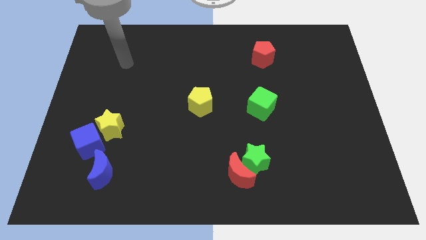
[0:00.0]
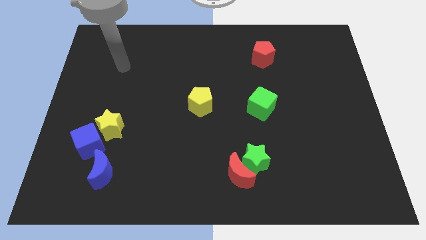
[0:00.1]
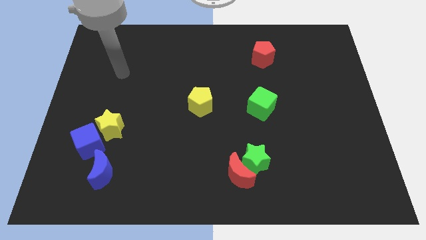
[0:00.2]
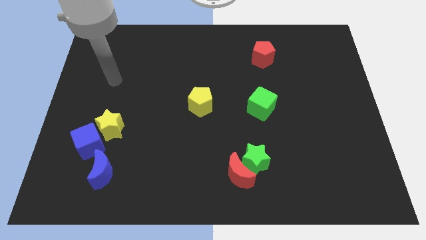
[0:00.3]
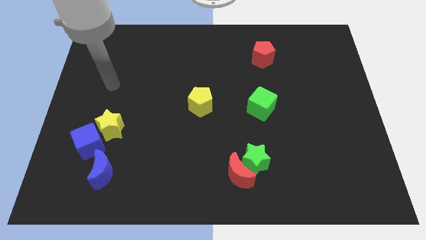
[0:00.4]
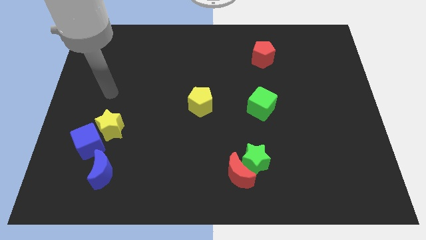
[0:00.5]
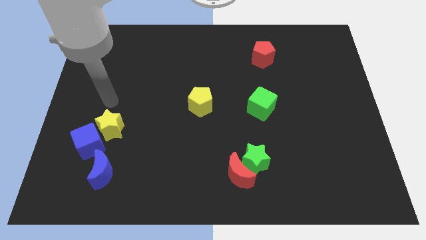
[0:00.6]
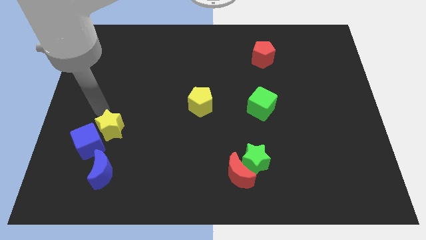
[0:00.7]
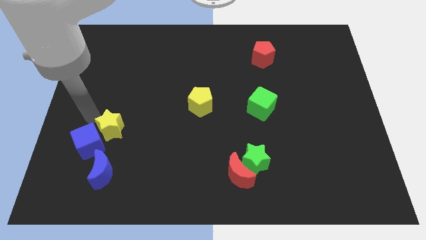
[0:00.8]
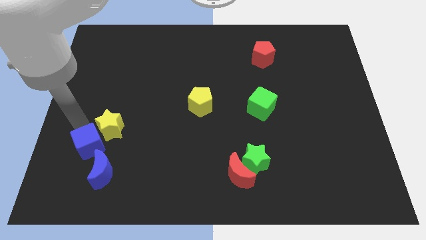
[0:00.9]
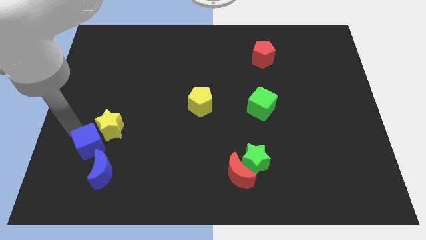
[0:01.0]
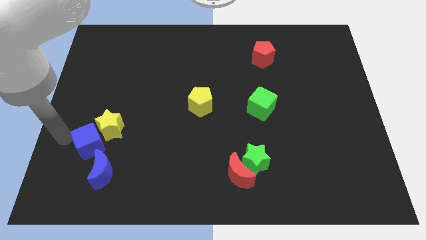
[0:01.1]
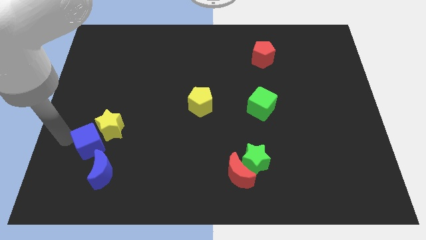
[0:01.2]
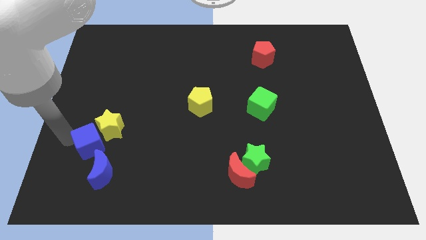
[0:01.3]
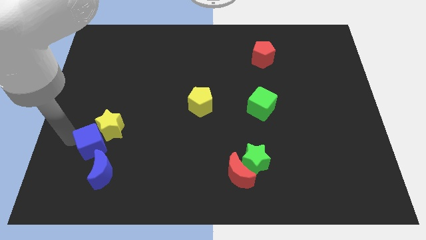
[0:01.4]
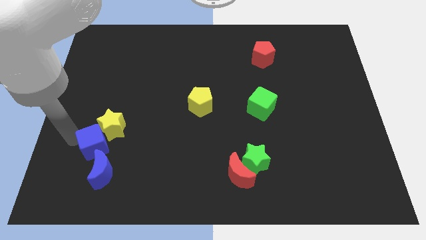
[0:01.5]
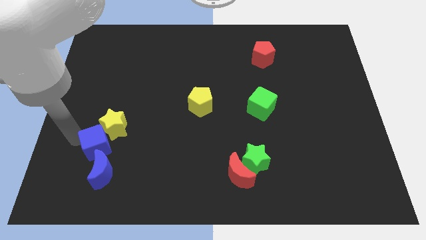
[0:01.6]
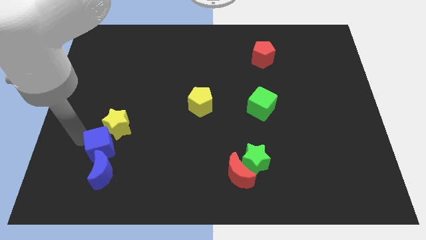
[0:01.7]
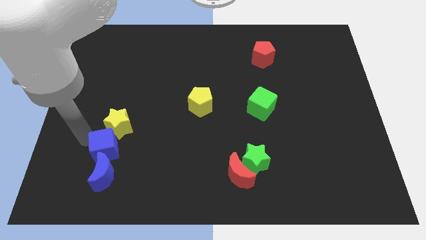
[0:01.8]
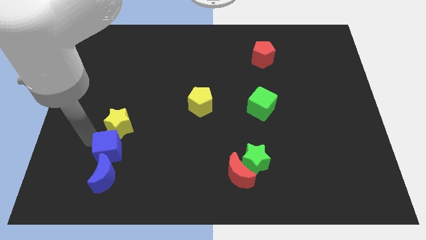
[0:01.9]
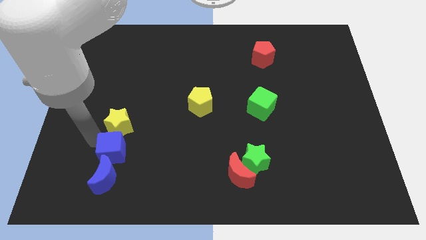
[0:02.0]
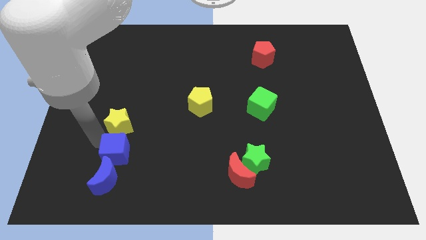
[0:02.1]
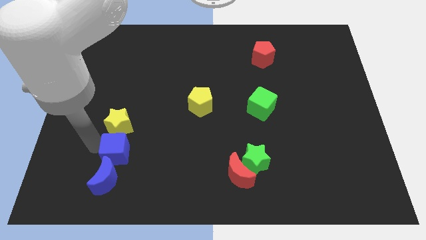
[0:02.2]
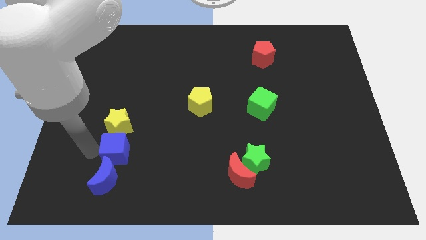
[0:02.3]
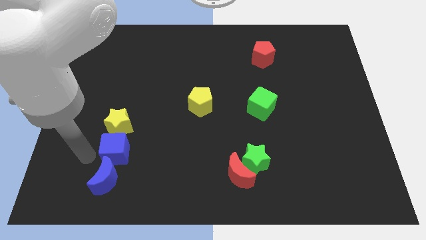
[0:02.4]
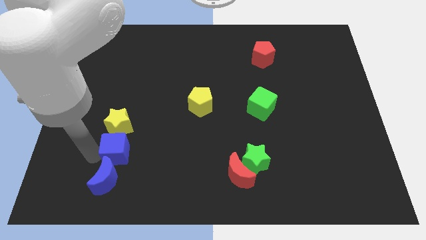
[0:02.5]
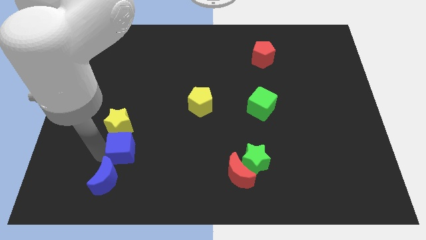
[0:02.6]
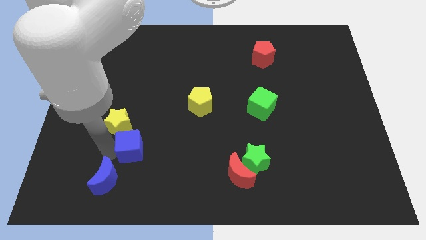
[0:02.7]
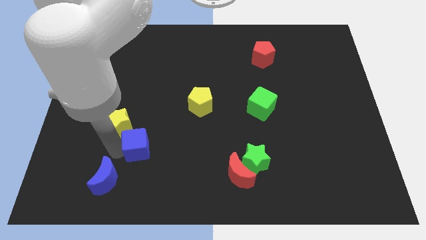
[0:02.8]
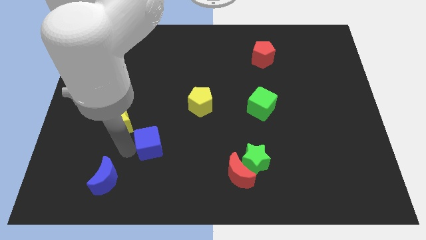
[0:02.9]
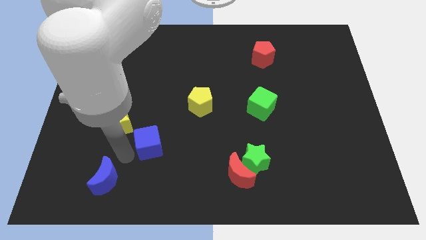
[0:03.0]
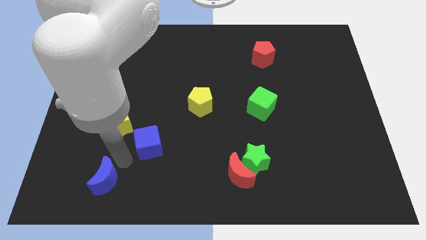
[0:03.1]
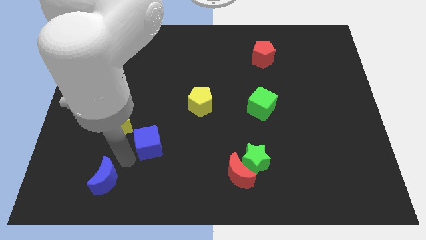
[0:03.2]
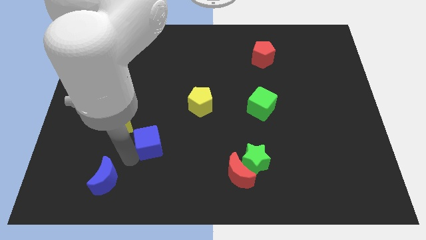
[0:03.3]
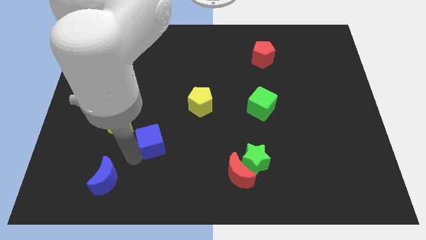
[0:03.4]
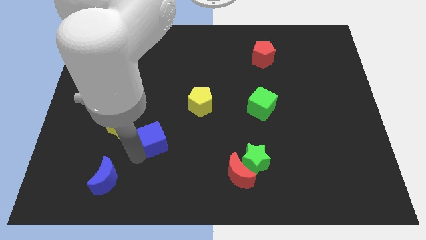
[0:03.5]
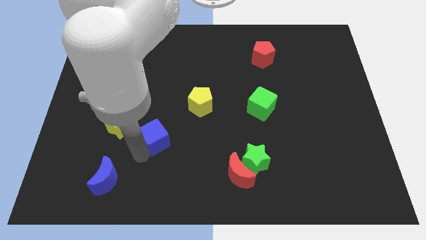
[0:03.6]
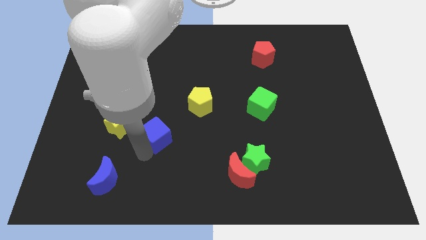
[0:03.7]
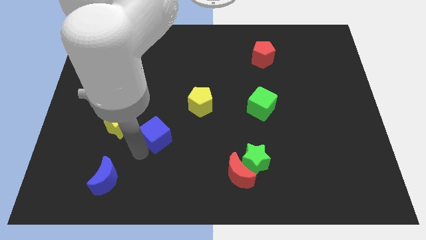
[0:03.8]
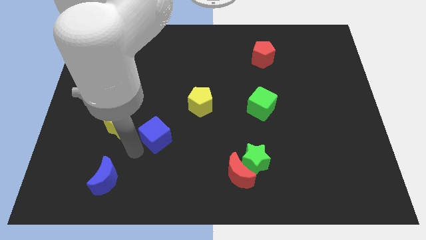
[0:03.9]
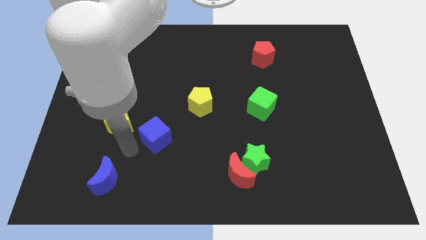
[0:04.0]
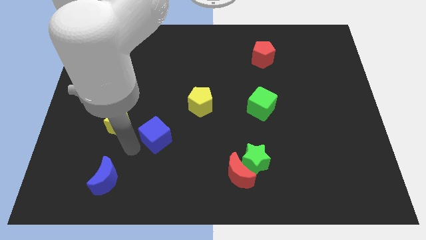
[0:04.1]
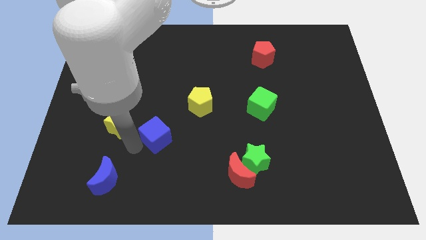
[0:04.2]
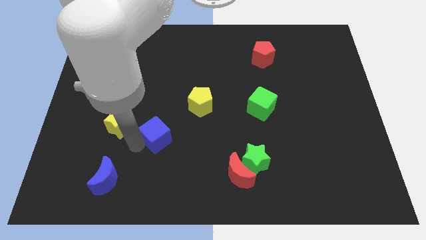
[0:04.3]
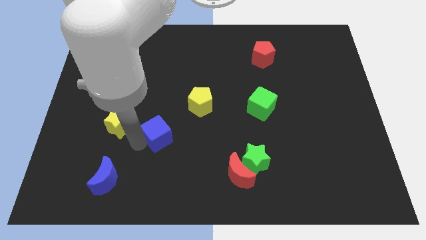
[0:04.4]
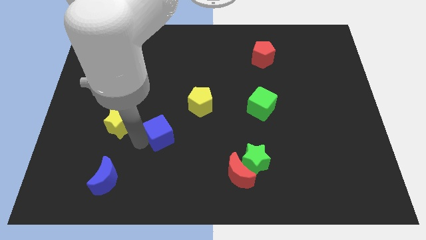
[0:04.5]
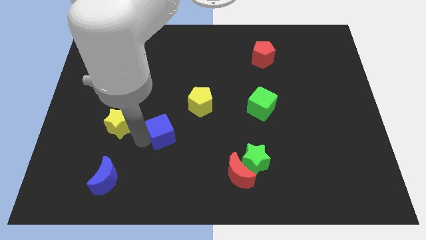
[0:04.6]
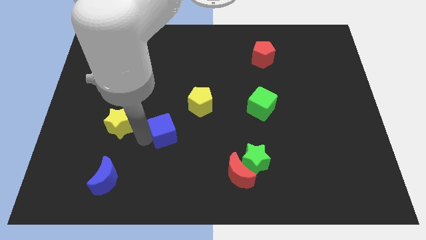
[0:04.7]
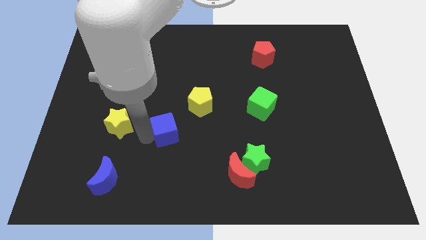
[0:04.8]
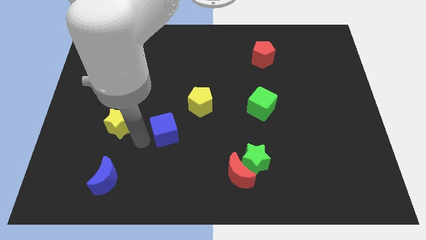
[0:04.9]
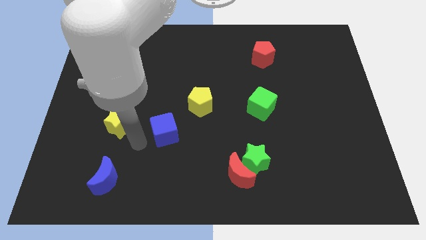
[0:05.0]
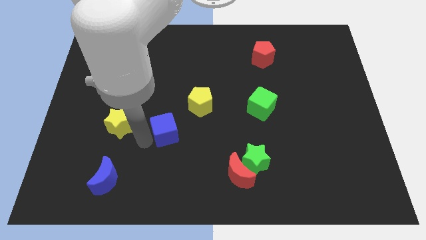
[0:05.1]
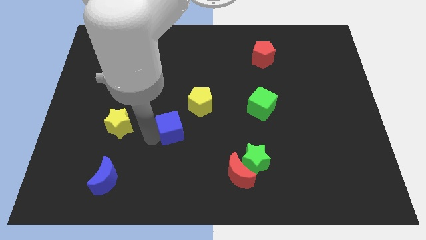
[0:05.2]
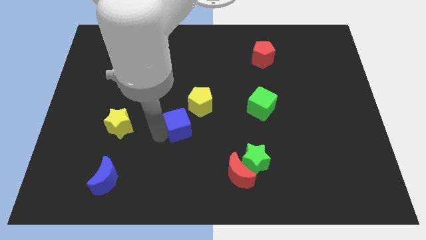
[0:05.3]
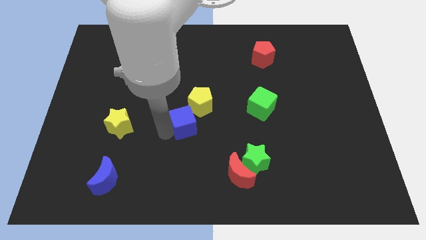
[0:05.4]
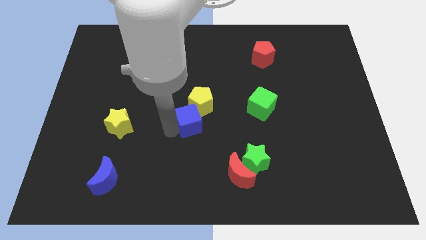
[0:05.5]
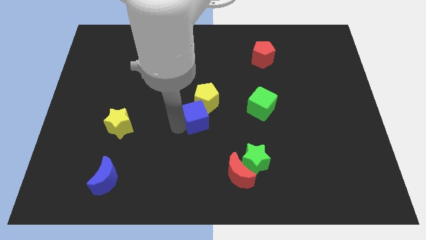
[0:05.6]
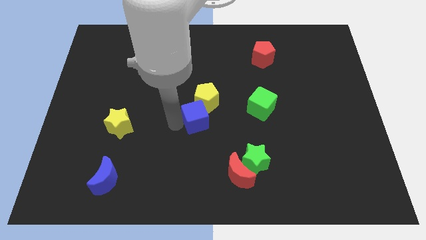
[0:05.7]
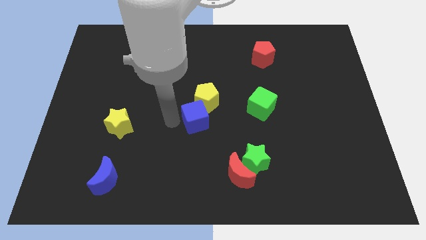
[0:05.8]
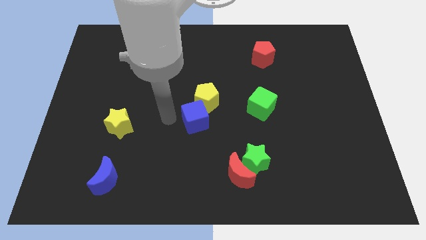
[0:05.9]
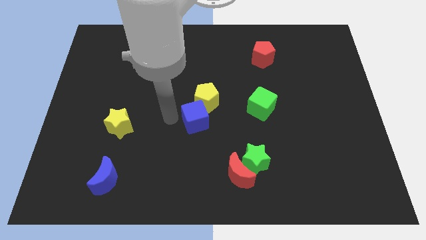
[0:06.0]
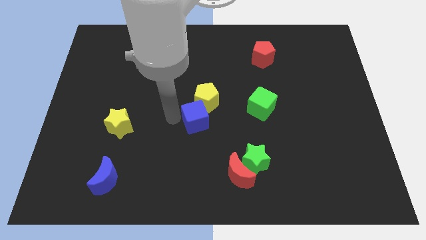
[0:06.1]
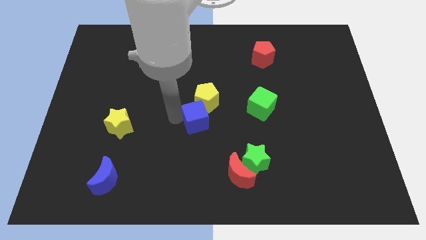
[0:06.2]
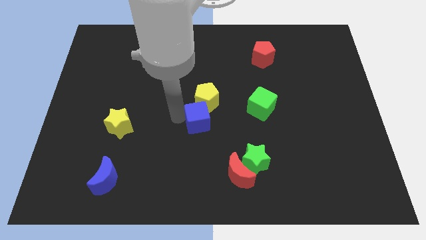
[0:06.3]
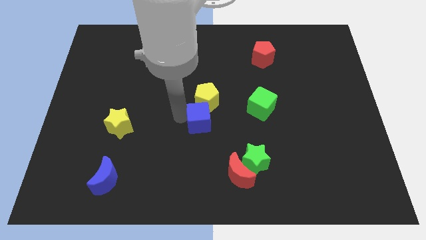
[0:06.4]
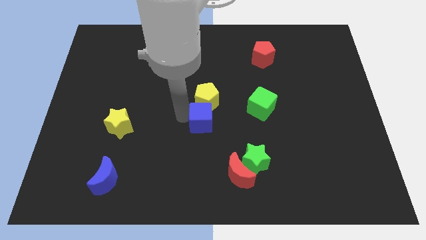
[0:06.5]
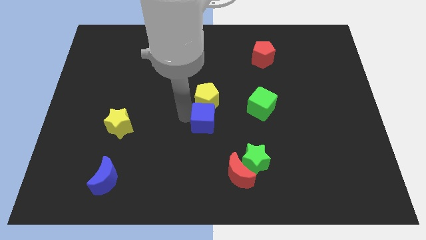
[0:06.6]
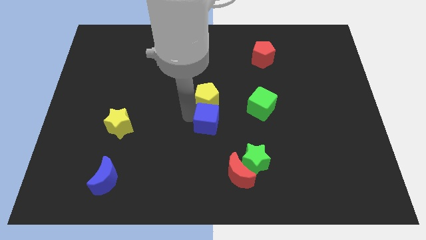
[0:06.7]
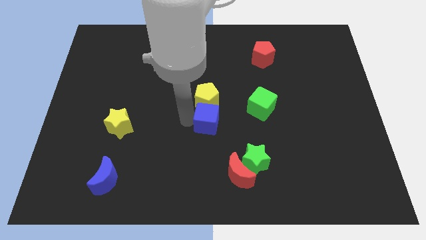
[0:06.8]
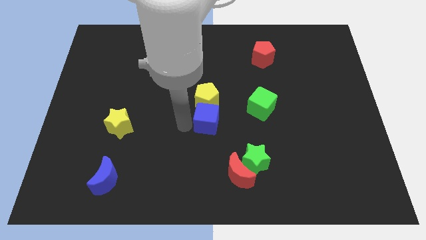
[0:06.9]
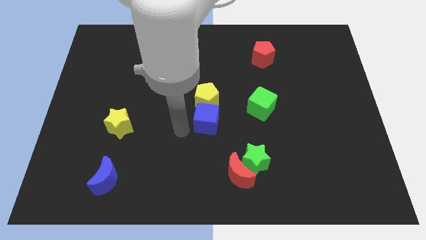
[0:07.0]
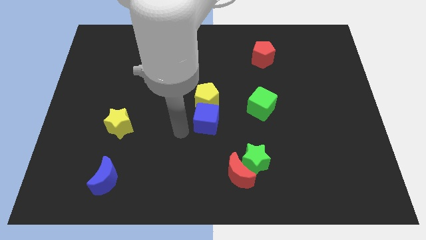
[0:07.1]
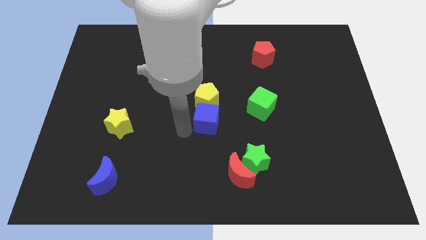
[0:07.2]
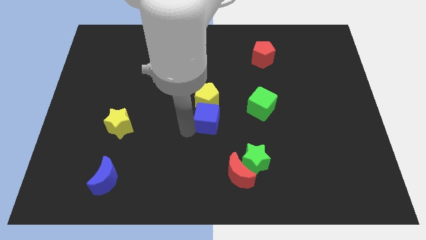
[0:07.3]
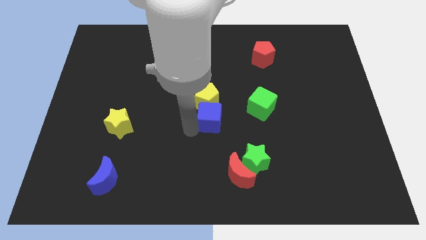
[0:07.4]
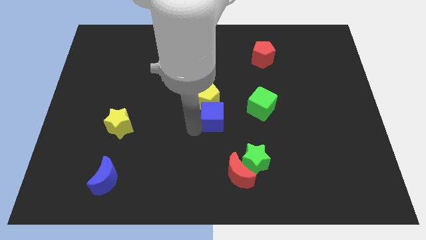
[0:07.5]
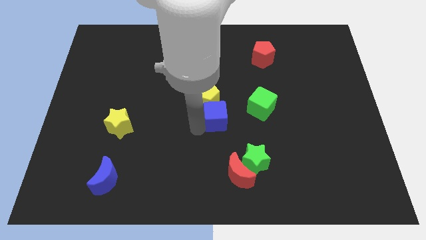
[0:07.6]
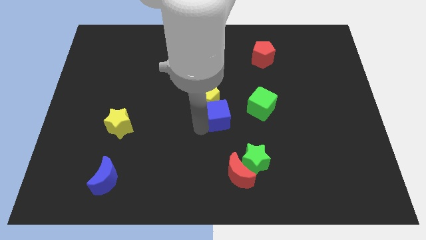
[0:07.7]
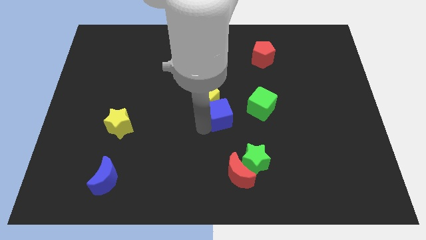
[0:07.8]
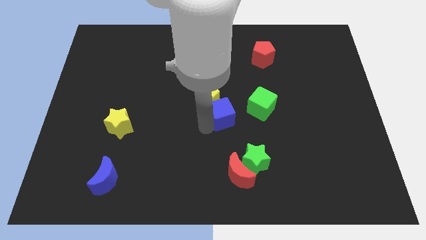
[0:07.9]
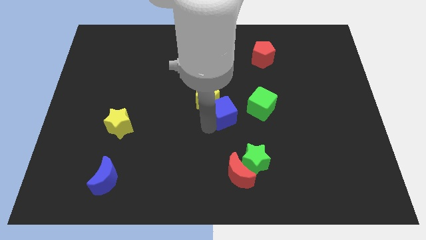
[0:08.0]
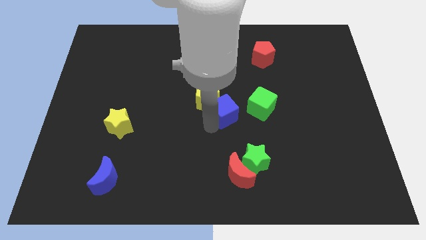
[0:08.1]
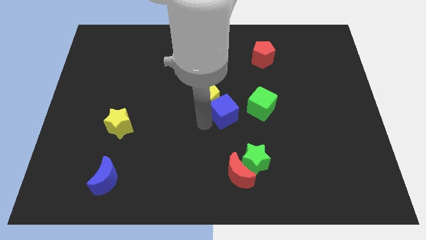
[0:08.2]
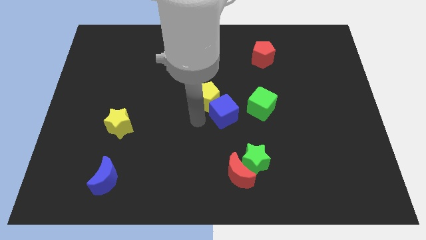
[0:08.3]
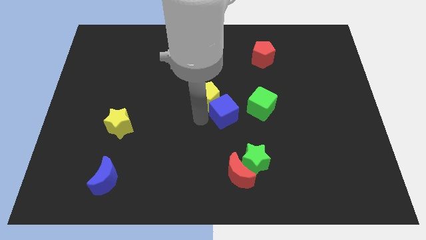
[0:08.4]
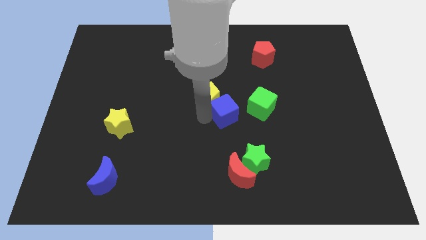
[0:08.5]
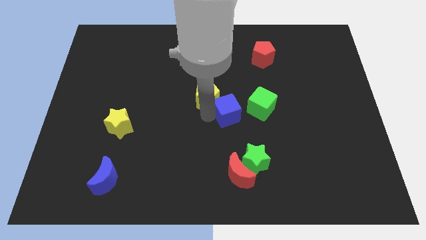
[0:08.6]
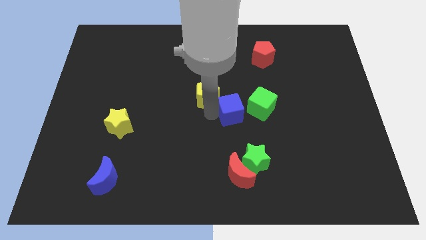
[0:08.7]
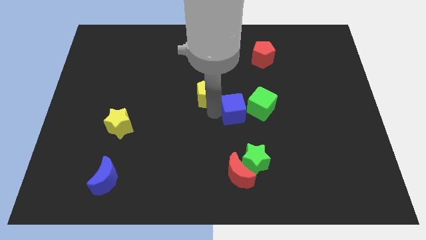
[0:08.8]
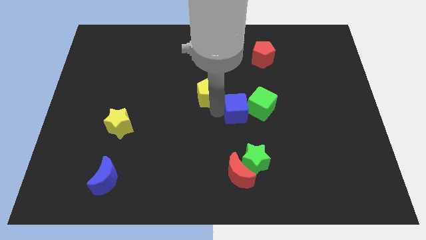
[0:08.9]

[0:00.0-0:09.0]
push the blue cube to the green cube
